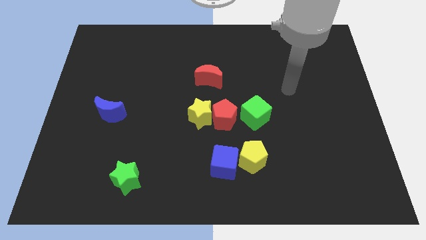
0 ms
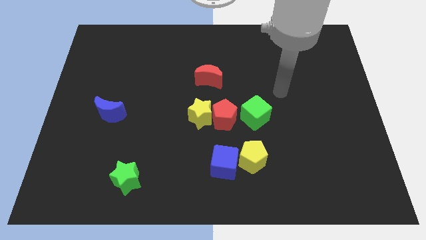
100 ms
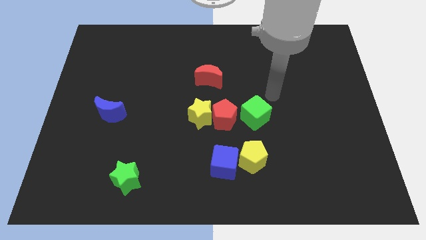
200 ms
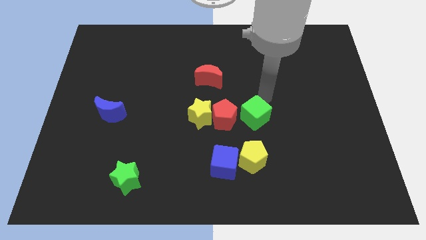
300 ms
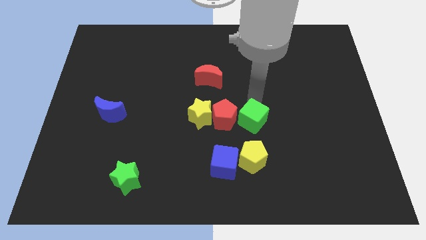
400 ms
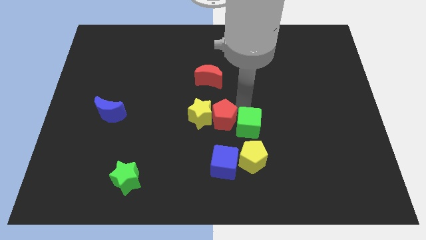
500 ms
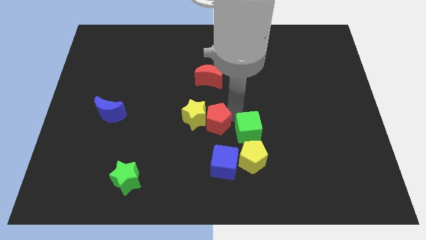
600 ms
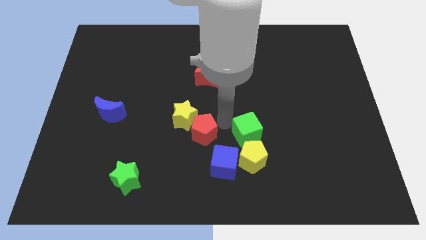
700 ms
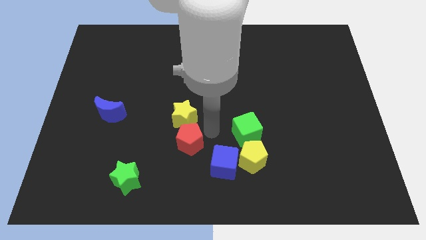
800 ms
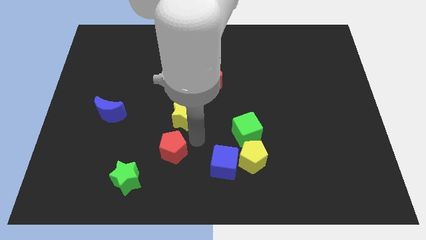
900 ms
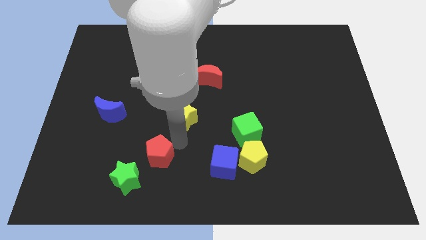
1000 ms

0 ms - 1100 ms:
pull the yellow star apart from the red pentagon

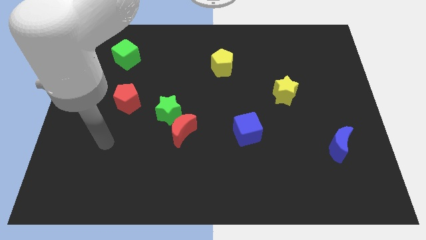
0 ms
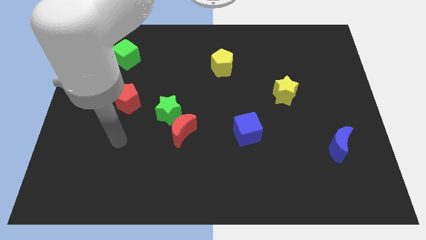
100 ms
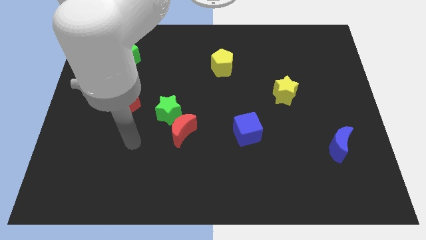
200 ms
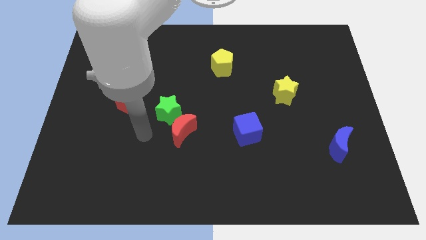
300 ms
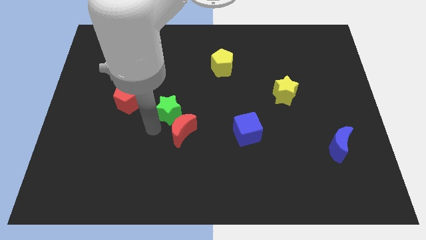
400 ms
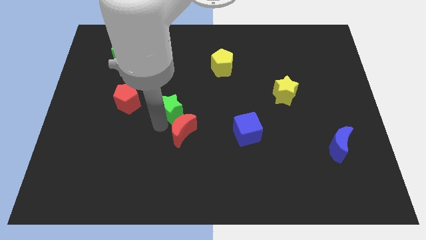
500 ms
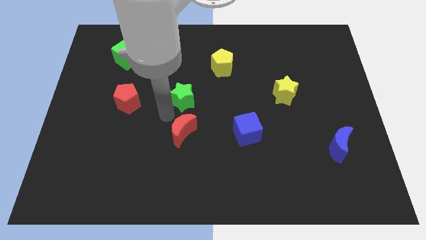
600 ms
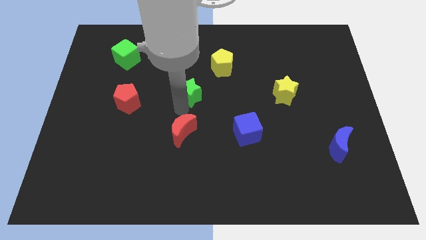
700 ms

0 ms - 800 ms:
move the red moon away from the green star

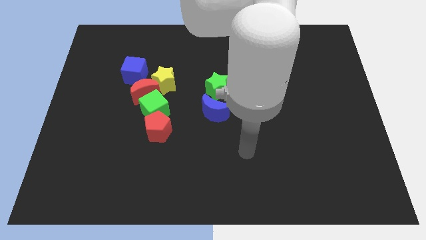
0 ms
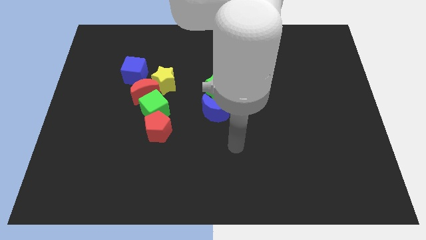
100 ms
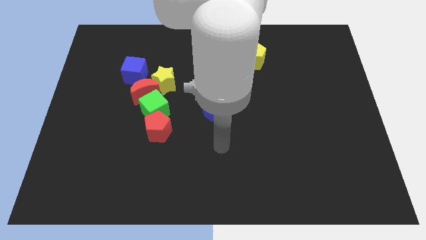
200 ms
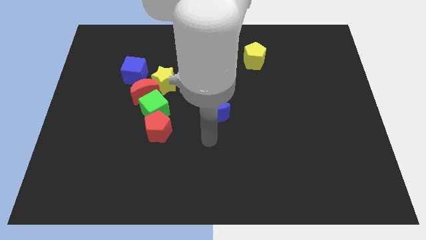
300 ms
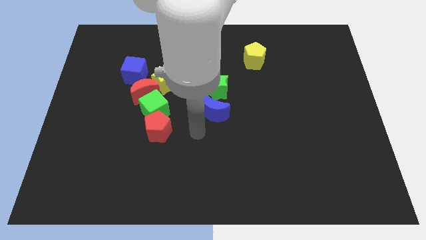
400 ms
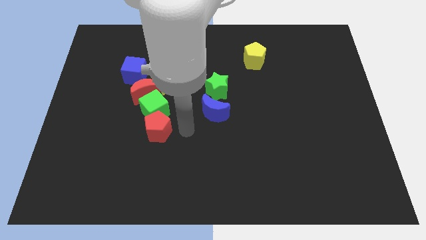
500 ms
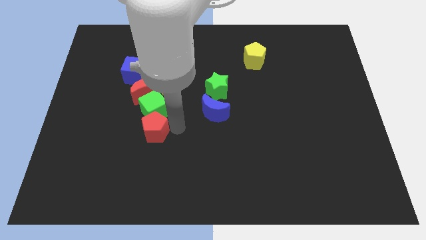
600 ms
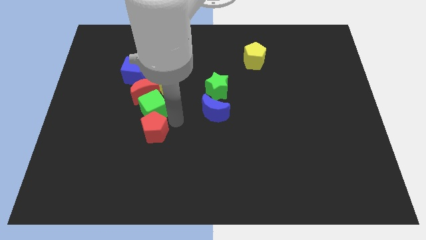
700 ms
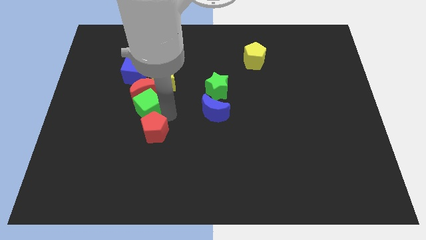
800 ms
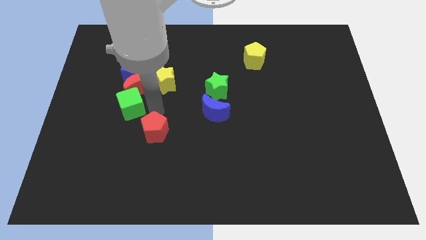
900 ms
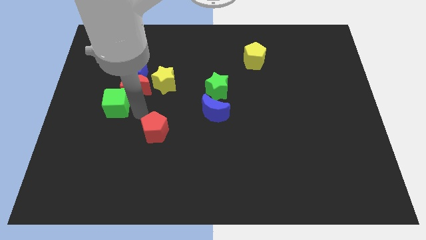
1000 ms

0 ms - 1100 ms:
pull the red pentagon apart from the green cube

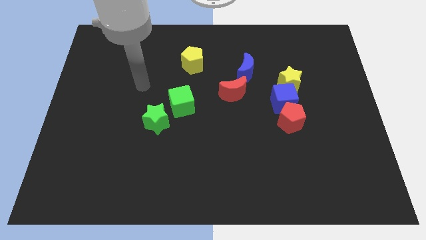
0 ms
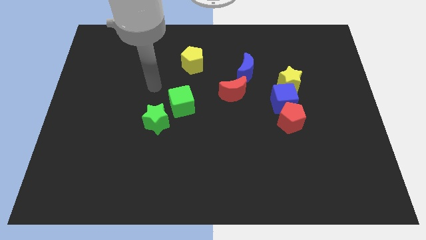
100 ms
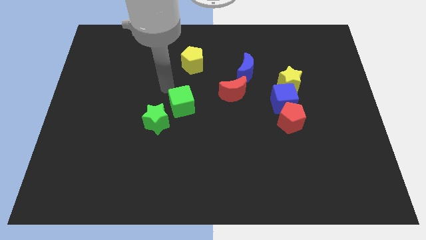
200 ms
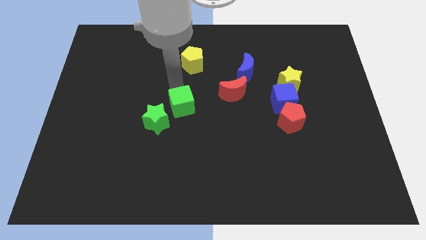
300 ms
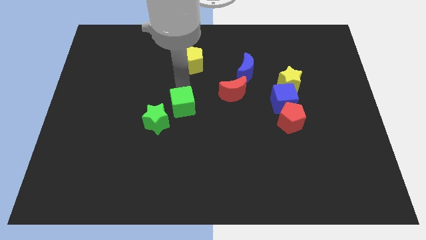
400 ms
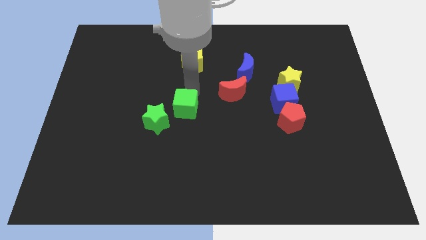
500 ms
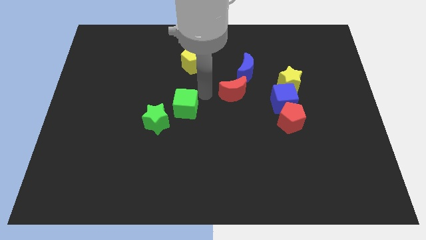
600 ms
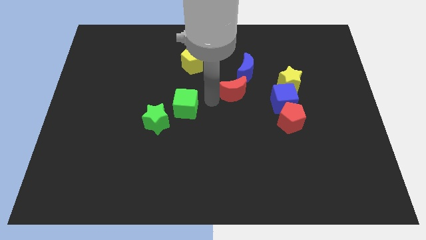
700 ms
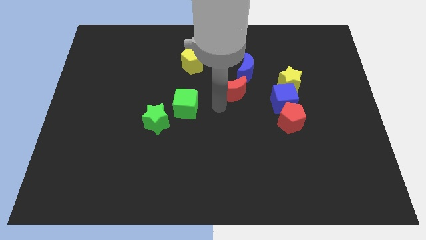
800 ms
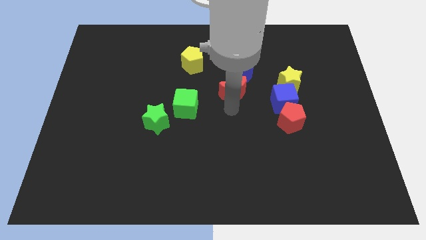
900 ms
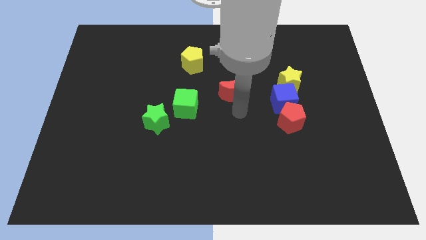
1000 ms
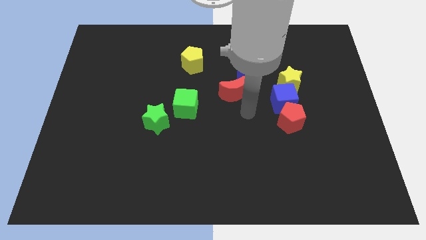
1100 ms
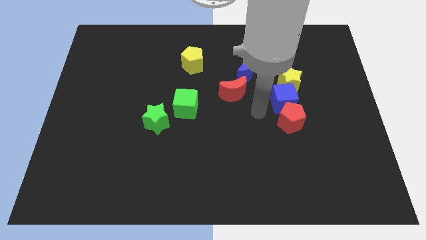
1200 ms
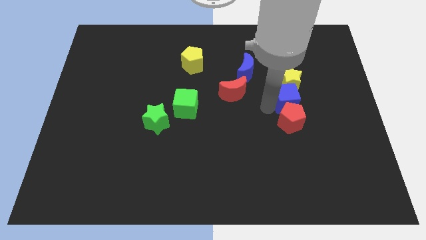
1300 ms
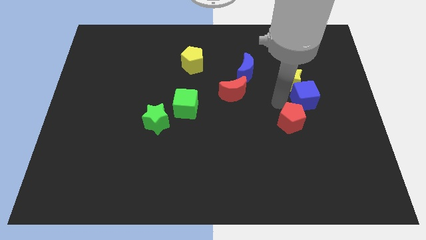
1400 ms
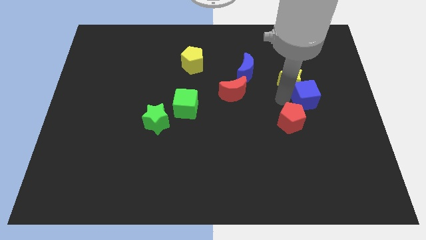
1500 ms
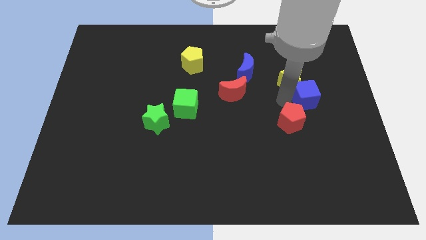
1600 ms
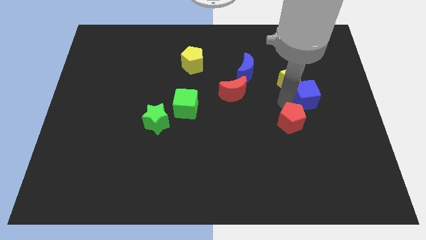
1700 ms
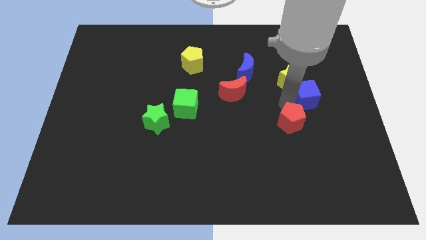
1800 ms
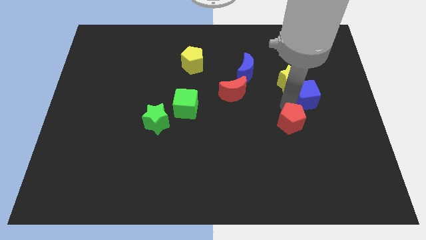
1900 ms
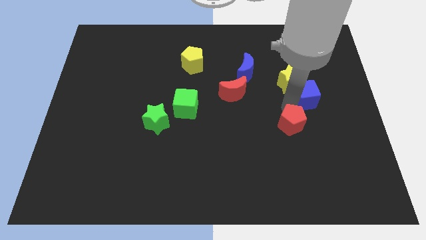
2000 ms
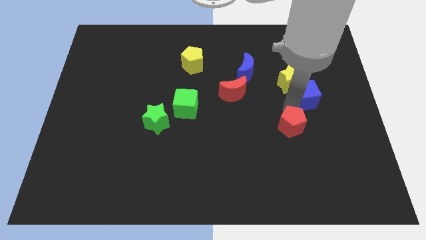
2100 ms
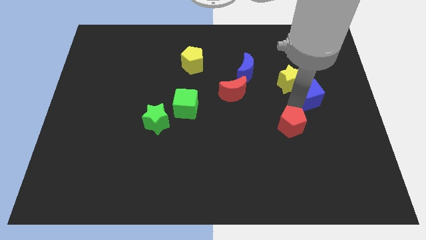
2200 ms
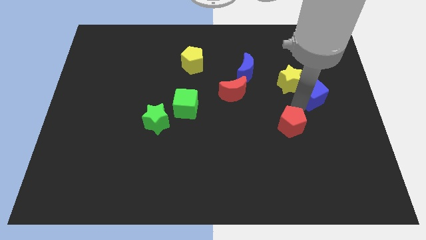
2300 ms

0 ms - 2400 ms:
separate the red pentagon from the blue cube

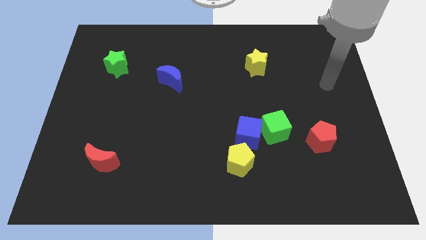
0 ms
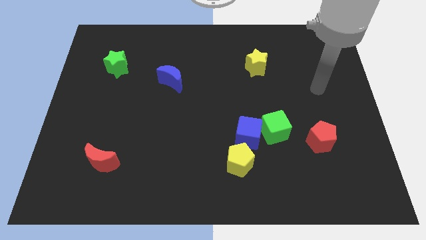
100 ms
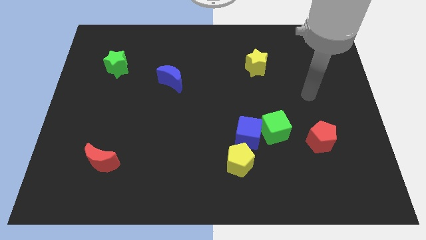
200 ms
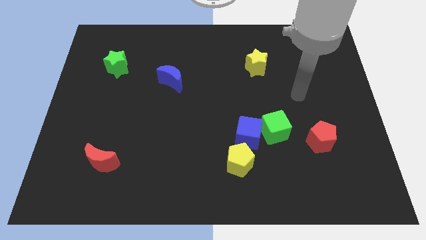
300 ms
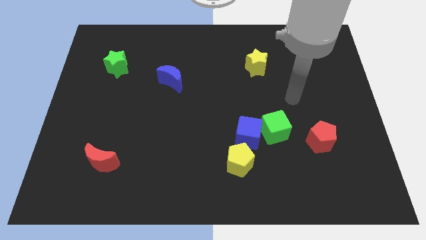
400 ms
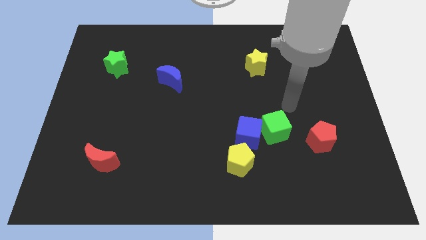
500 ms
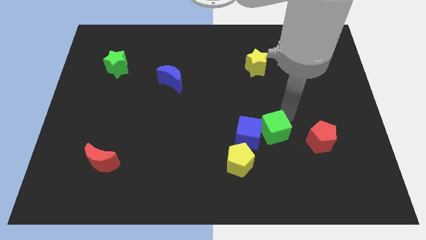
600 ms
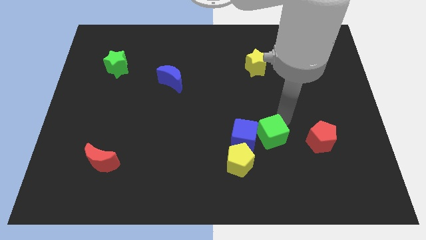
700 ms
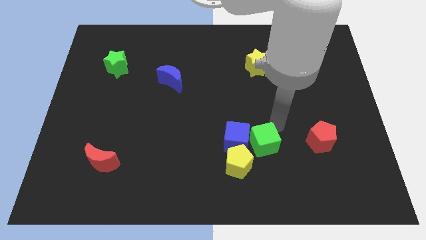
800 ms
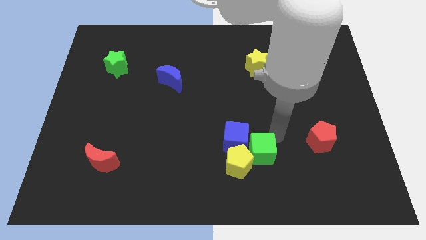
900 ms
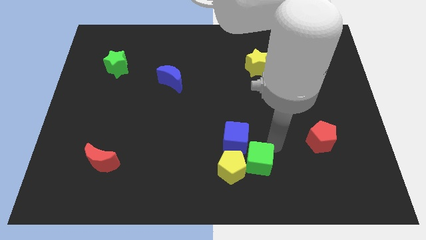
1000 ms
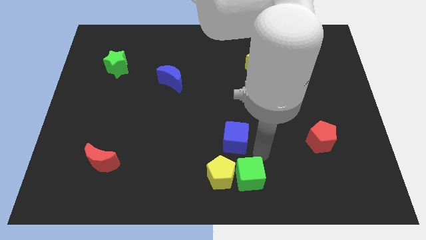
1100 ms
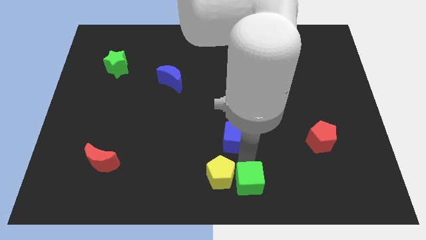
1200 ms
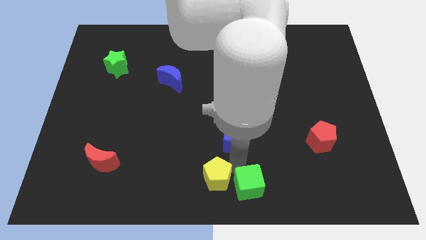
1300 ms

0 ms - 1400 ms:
pull the blue cube apart from the green cube and yellow pentagon

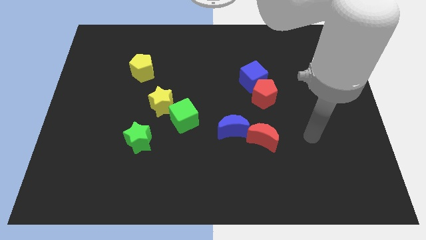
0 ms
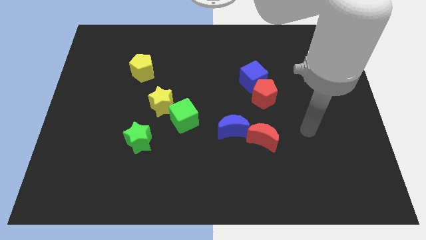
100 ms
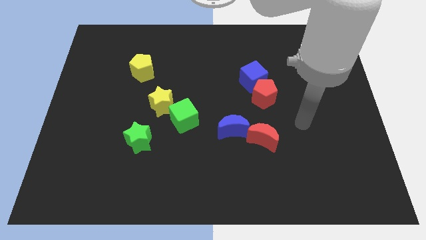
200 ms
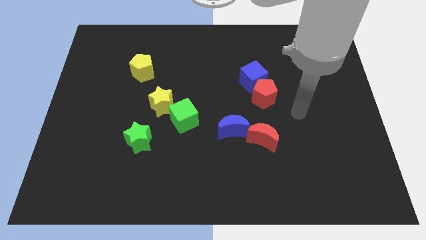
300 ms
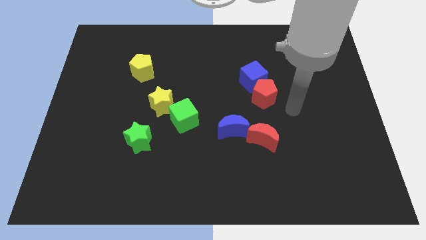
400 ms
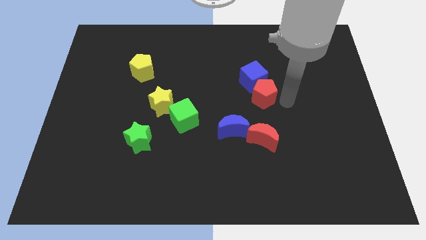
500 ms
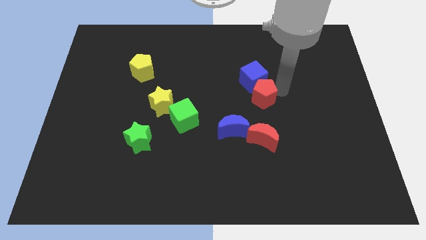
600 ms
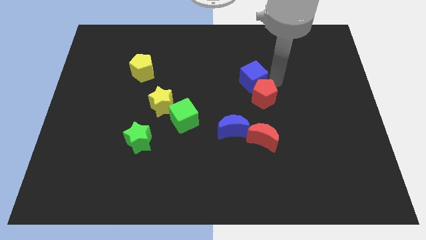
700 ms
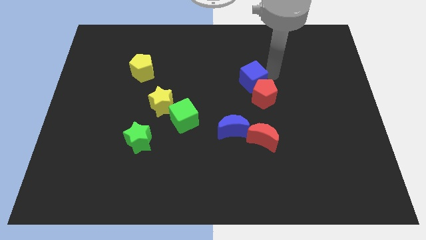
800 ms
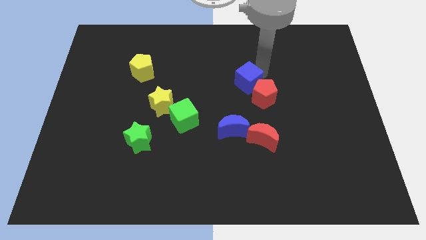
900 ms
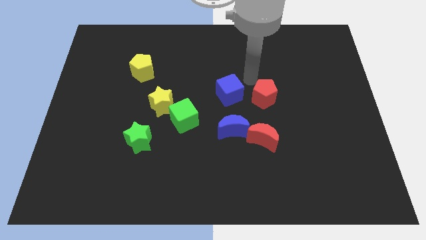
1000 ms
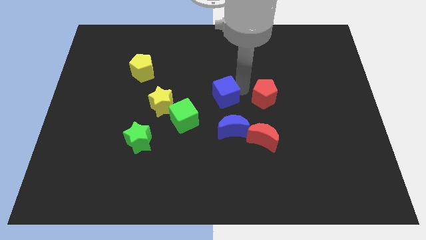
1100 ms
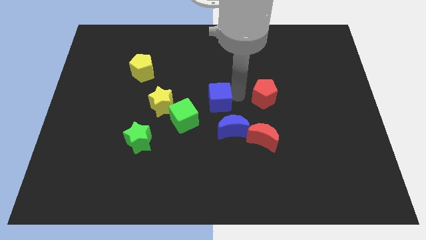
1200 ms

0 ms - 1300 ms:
pull the red pentagon apart from the blue cube

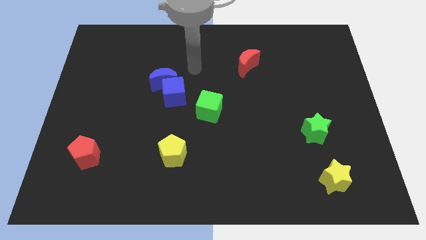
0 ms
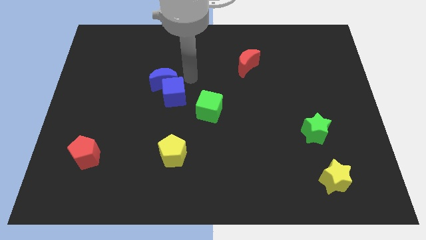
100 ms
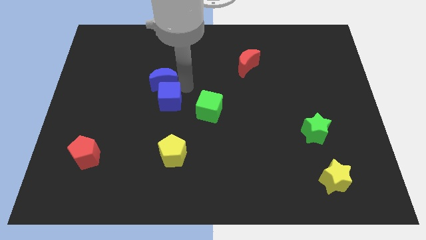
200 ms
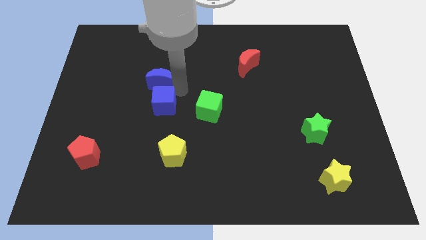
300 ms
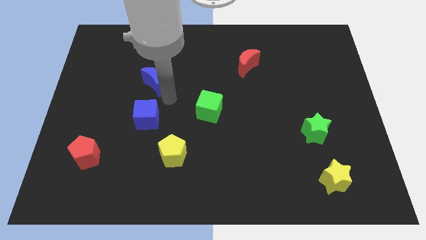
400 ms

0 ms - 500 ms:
pull the blue moon apart from the blue cube

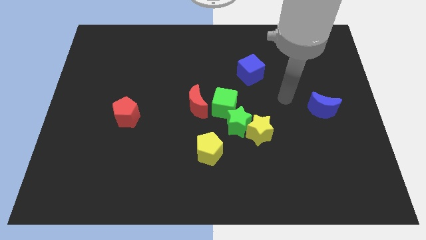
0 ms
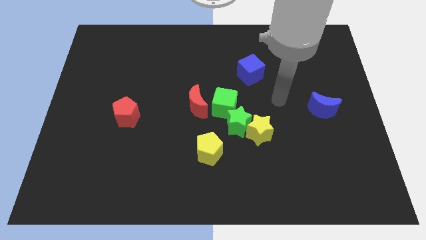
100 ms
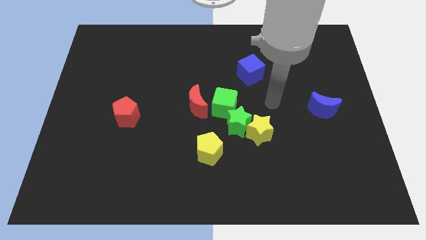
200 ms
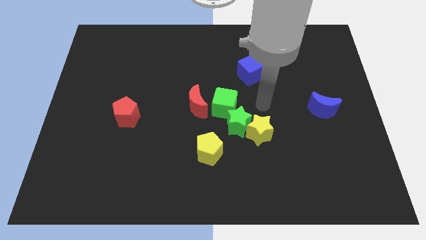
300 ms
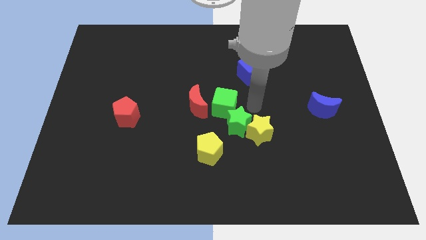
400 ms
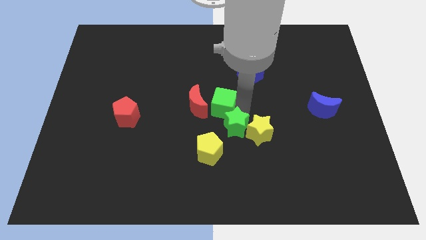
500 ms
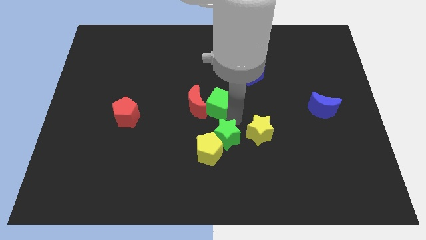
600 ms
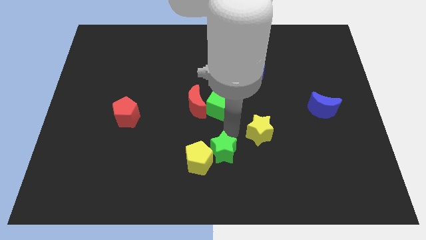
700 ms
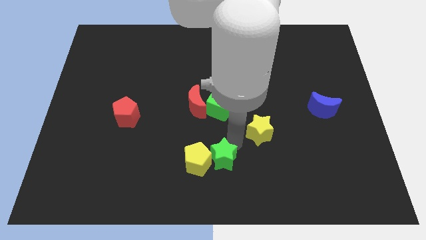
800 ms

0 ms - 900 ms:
move the yellow star away from the green star
